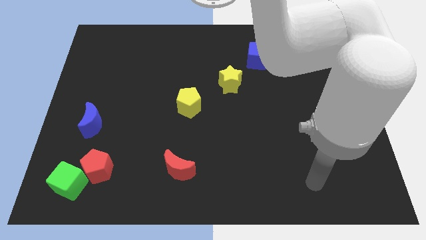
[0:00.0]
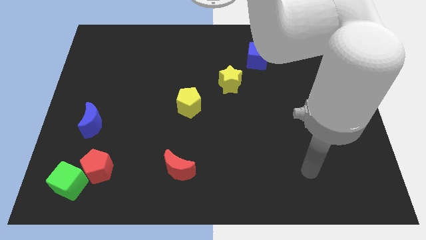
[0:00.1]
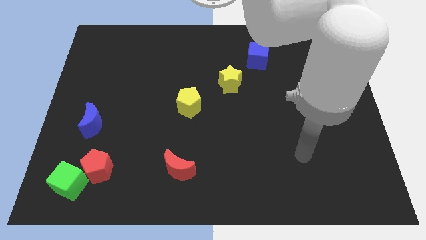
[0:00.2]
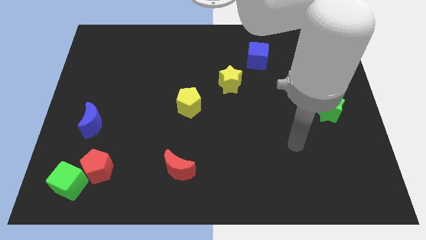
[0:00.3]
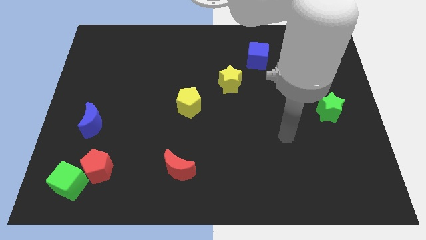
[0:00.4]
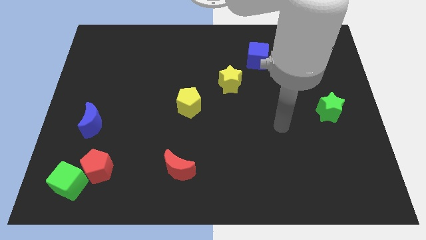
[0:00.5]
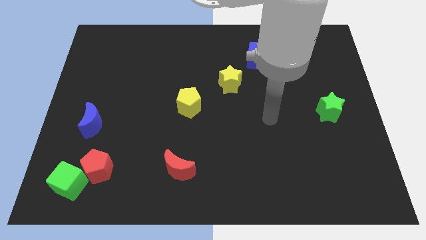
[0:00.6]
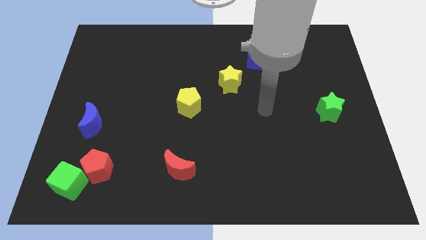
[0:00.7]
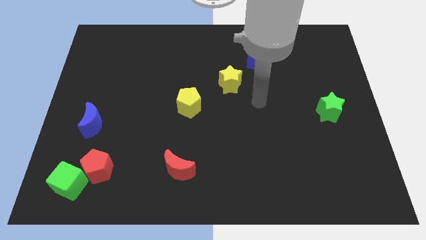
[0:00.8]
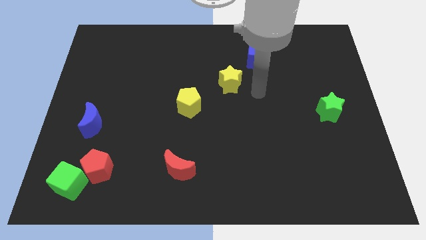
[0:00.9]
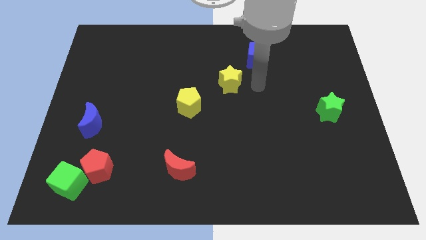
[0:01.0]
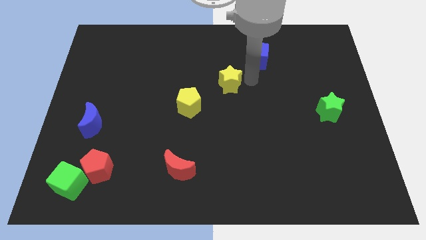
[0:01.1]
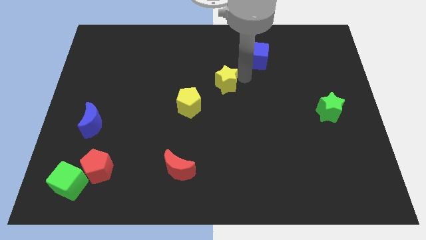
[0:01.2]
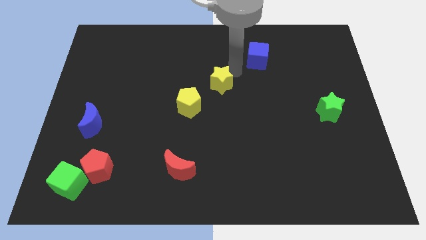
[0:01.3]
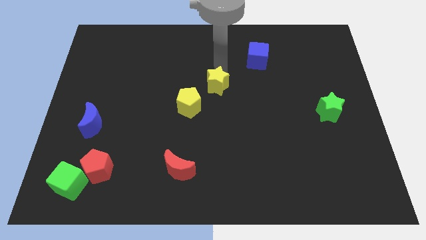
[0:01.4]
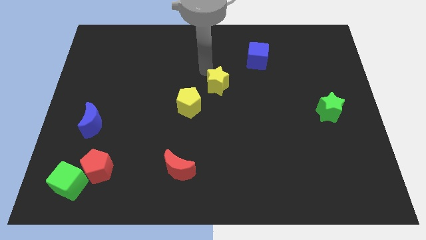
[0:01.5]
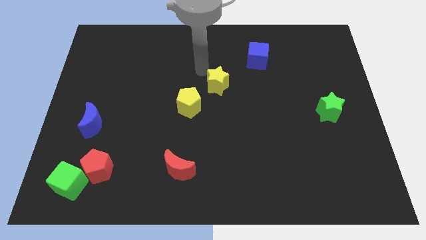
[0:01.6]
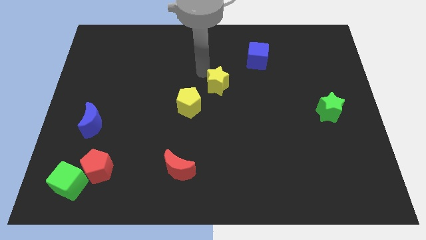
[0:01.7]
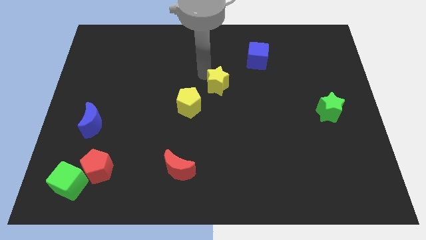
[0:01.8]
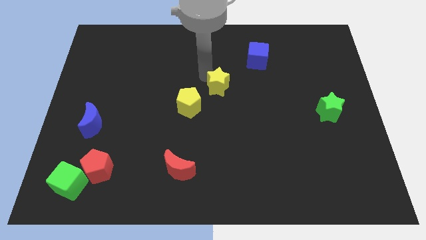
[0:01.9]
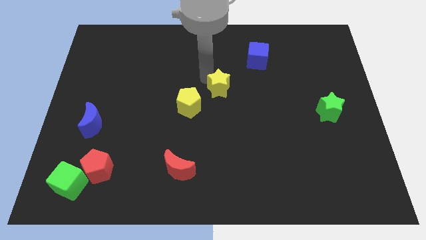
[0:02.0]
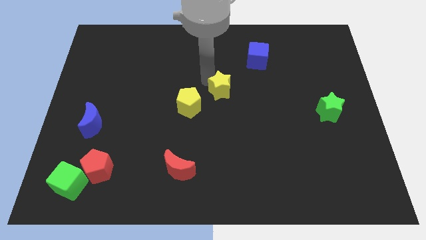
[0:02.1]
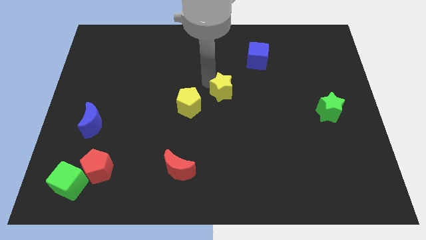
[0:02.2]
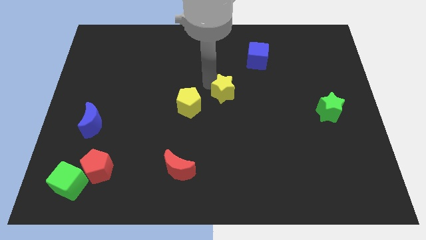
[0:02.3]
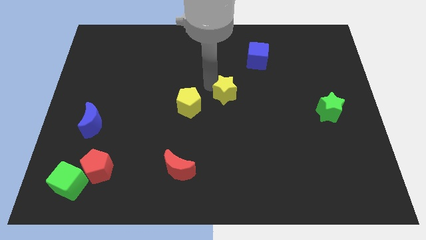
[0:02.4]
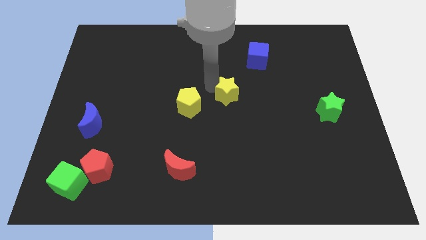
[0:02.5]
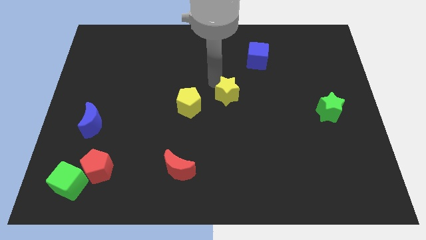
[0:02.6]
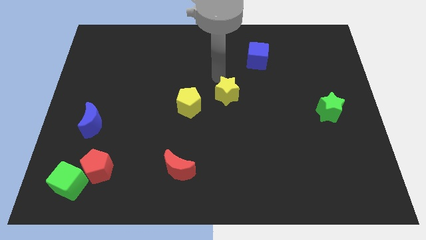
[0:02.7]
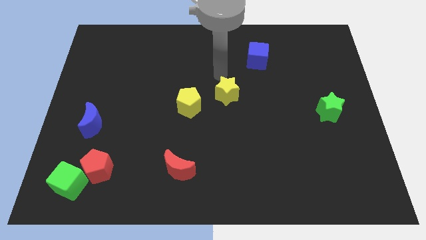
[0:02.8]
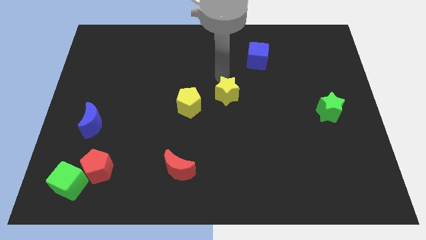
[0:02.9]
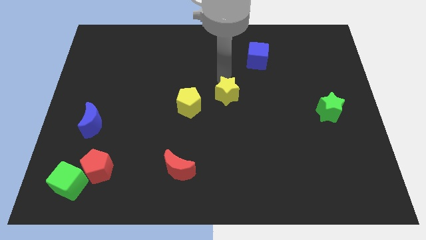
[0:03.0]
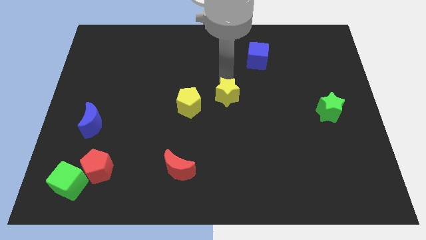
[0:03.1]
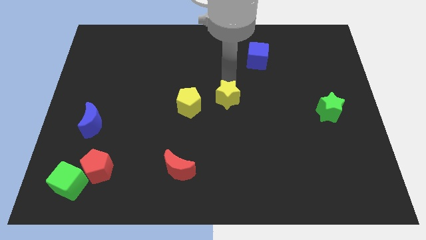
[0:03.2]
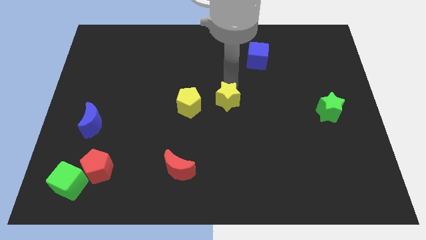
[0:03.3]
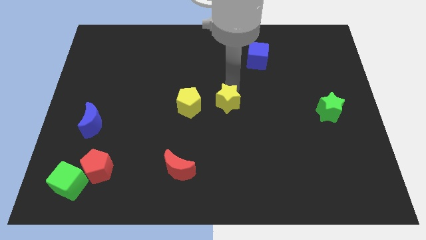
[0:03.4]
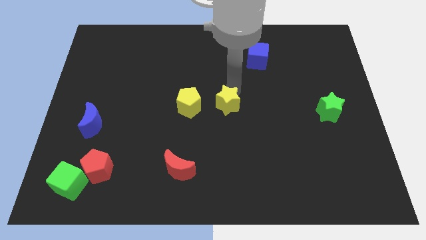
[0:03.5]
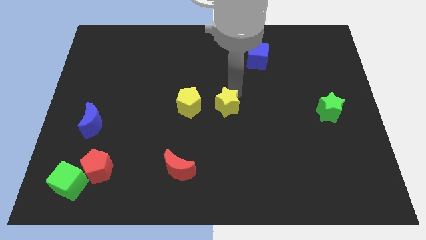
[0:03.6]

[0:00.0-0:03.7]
slightly move the yellow star downwards

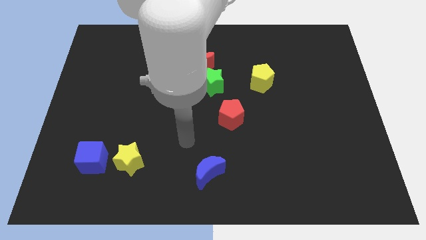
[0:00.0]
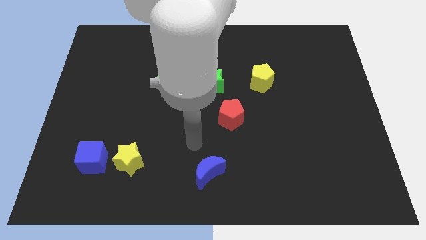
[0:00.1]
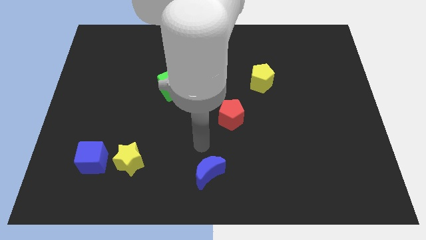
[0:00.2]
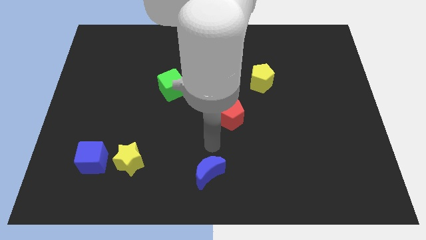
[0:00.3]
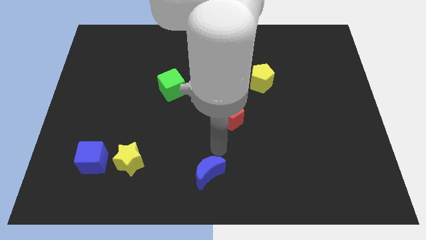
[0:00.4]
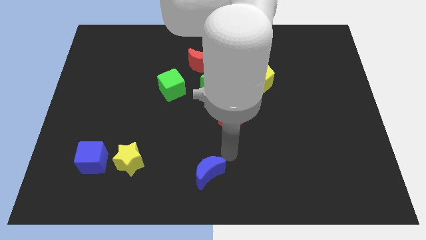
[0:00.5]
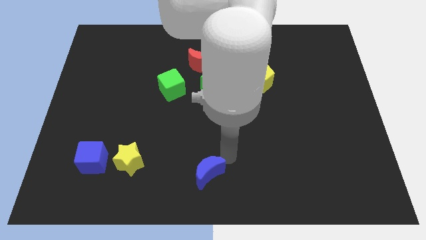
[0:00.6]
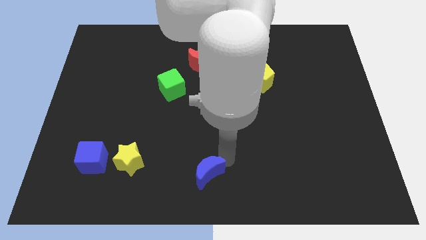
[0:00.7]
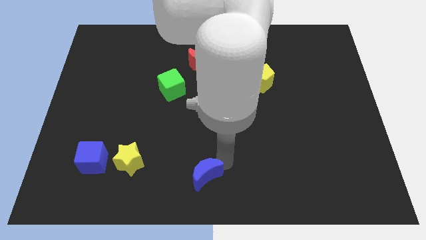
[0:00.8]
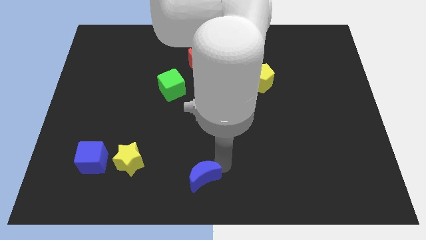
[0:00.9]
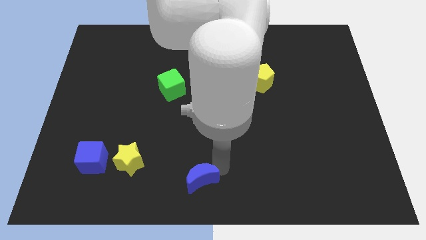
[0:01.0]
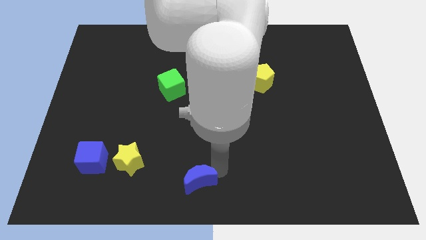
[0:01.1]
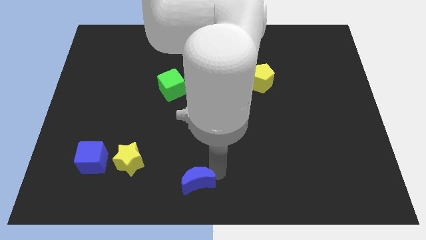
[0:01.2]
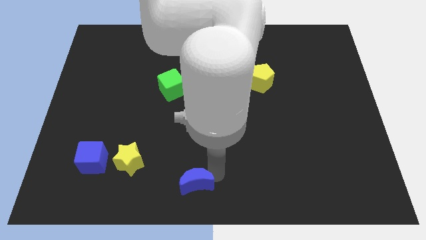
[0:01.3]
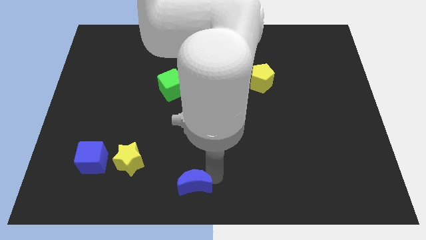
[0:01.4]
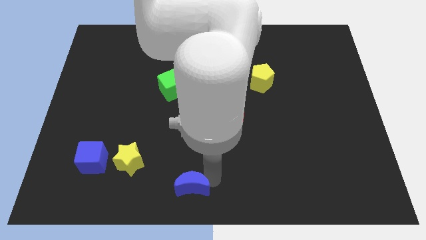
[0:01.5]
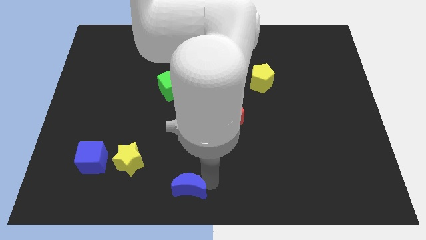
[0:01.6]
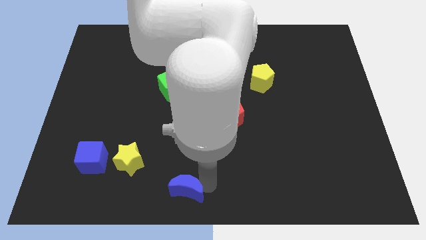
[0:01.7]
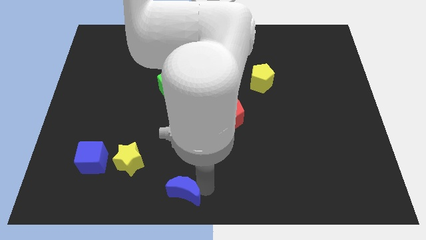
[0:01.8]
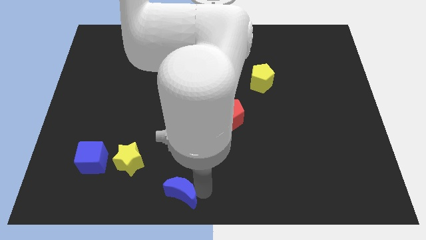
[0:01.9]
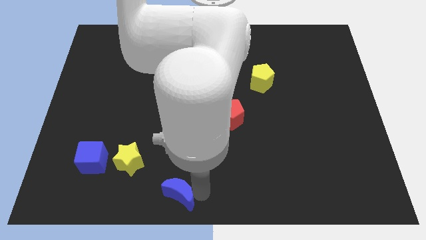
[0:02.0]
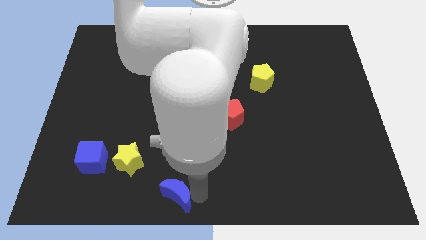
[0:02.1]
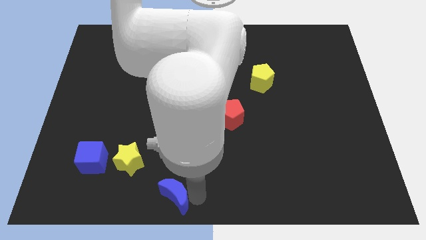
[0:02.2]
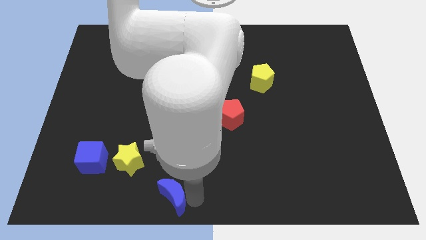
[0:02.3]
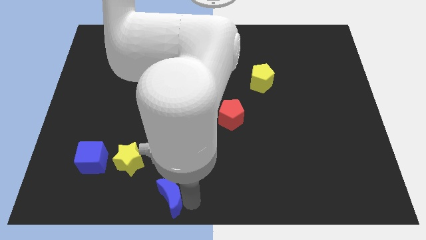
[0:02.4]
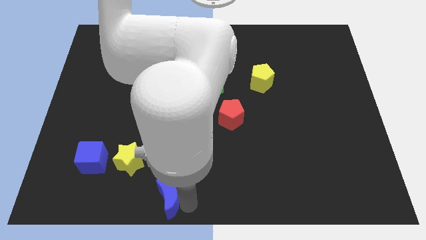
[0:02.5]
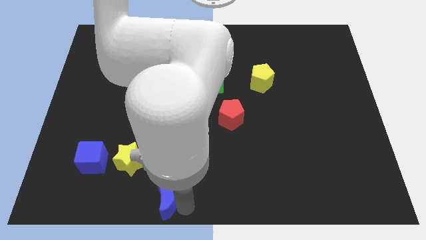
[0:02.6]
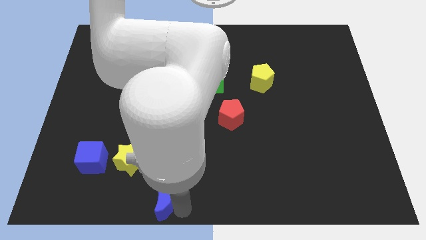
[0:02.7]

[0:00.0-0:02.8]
move the blue moon left a little

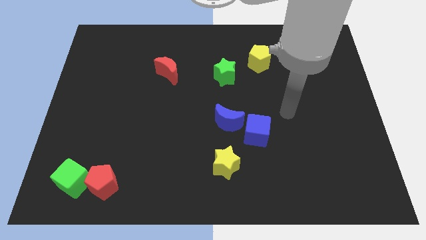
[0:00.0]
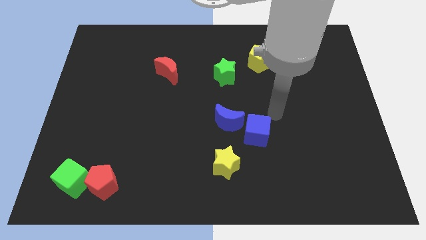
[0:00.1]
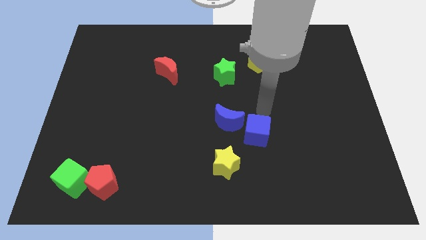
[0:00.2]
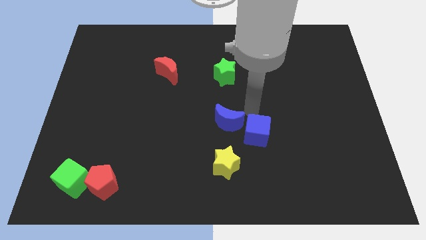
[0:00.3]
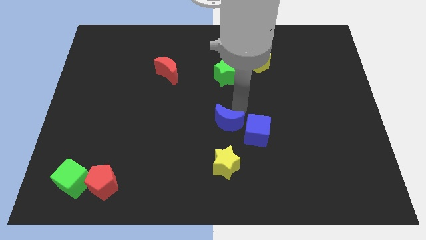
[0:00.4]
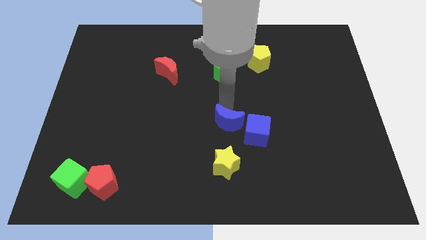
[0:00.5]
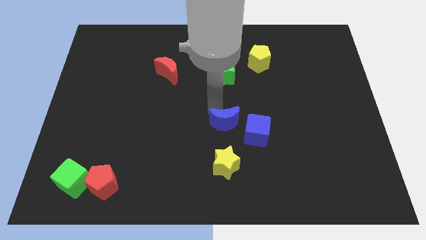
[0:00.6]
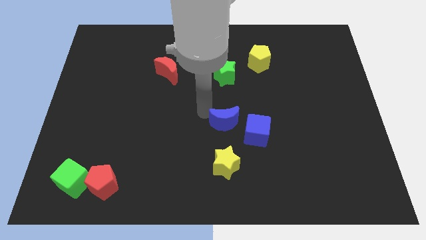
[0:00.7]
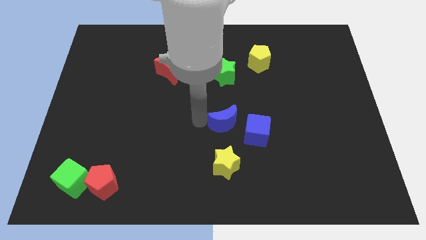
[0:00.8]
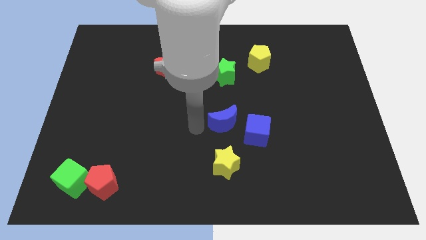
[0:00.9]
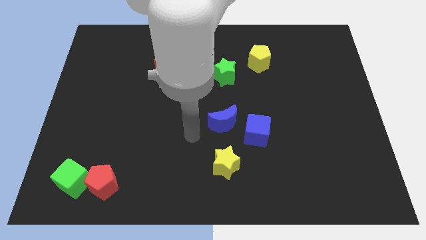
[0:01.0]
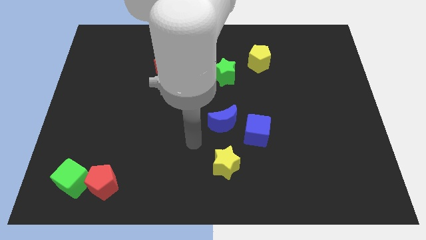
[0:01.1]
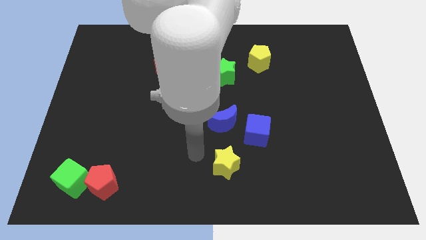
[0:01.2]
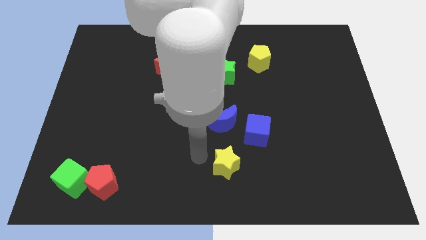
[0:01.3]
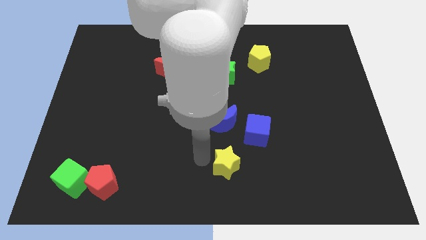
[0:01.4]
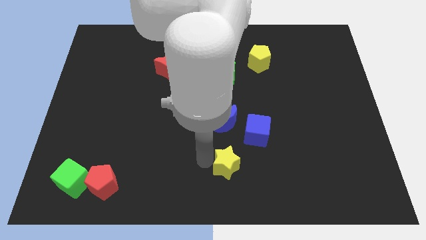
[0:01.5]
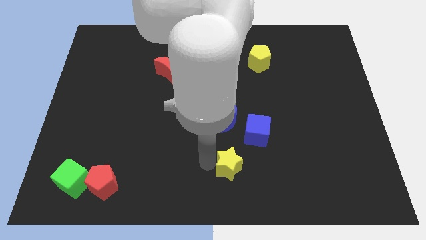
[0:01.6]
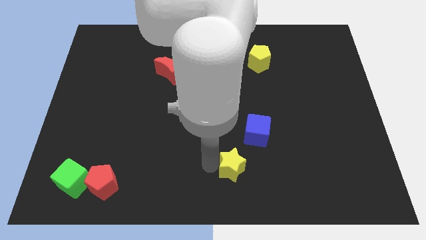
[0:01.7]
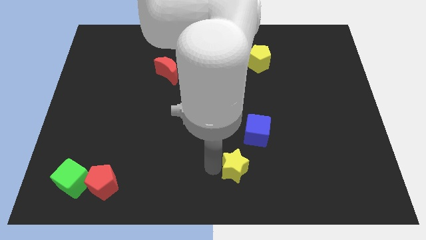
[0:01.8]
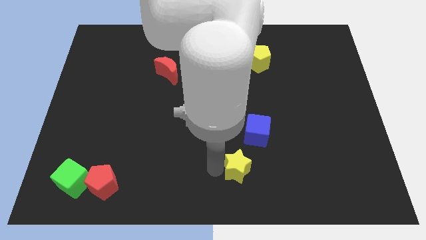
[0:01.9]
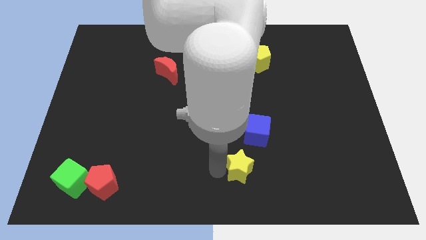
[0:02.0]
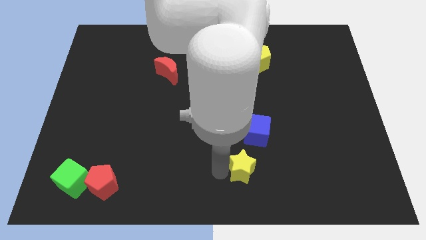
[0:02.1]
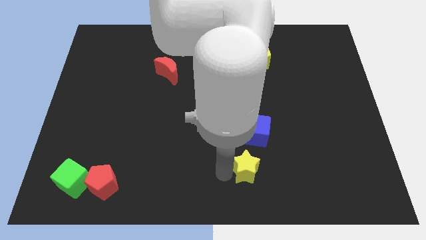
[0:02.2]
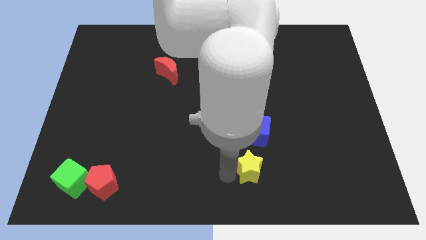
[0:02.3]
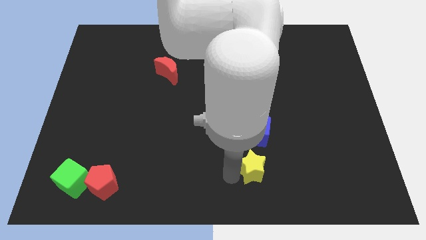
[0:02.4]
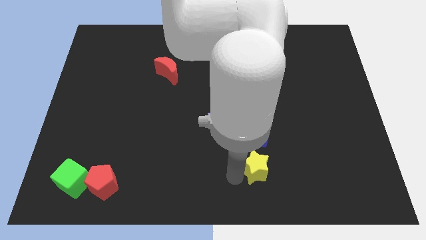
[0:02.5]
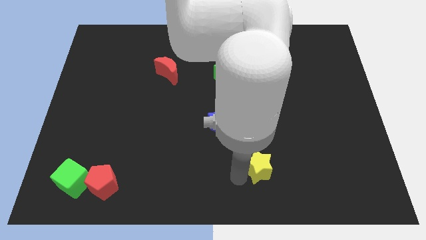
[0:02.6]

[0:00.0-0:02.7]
push the yellow star a little to the right
